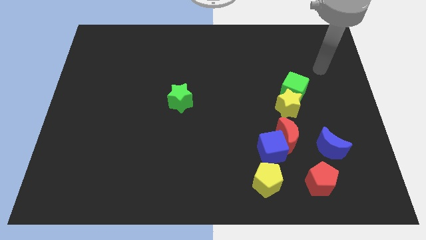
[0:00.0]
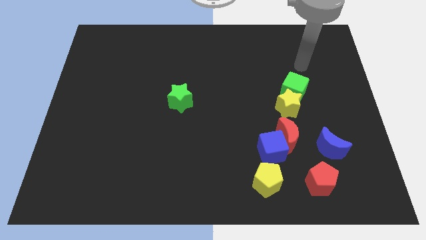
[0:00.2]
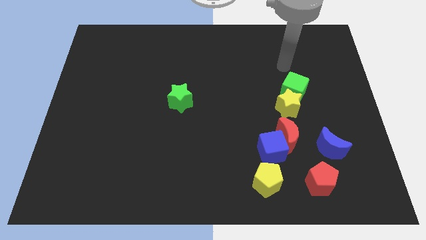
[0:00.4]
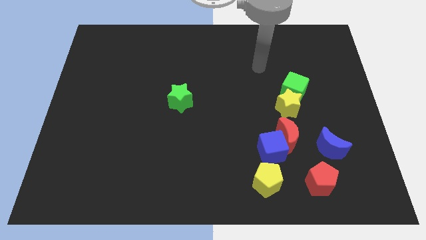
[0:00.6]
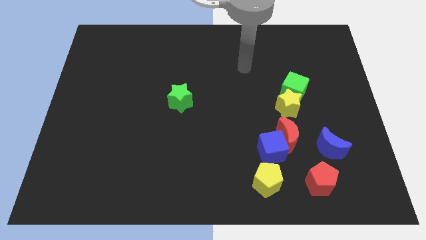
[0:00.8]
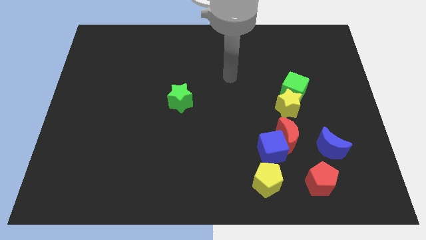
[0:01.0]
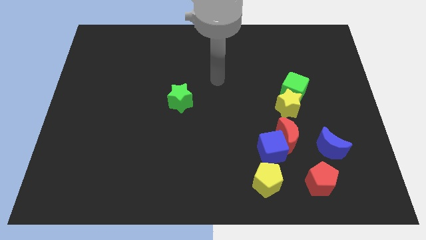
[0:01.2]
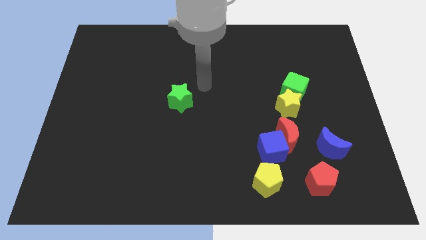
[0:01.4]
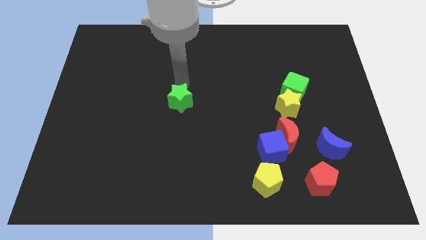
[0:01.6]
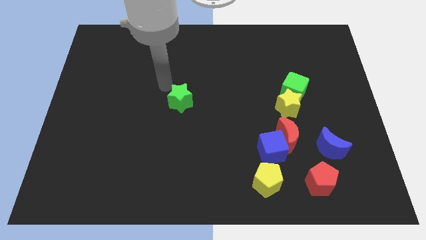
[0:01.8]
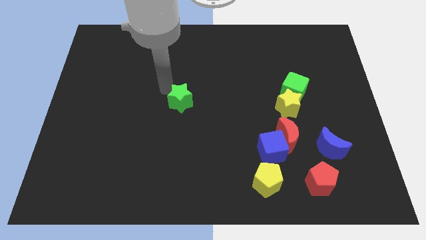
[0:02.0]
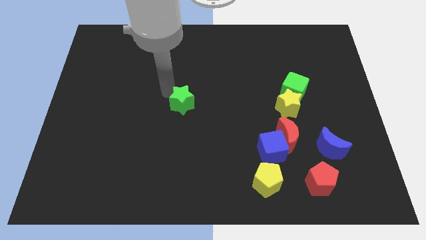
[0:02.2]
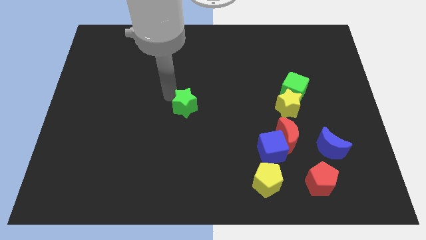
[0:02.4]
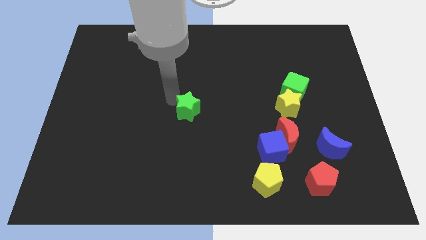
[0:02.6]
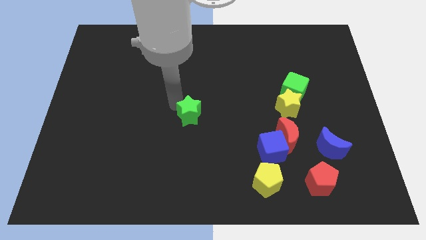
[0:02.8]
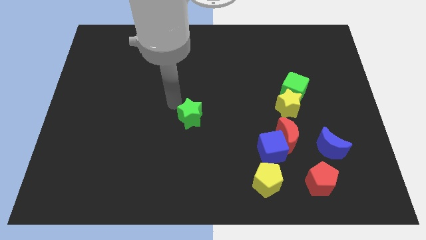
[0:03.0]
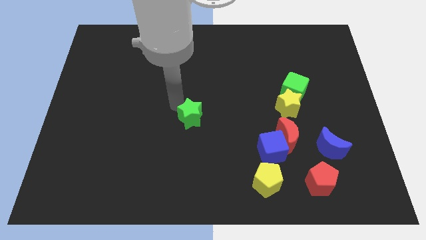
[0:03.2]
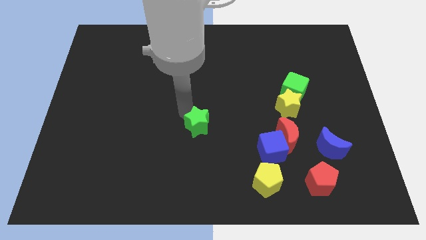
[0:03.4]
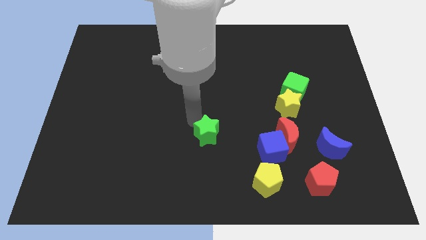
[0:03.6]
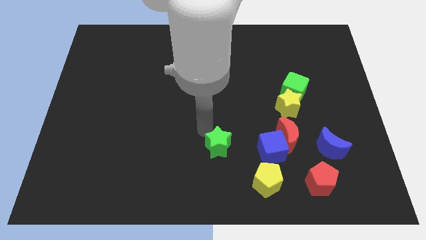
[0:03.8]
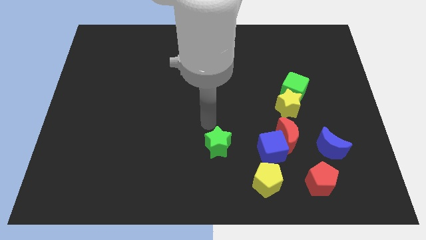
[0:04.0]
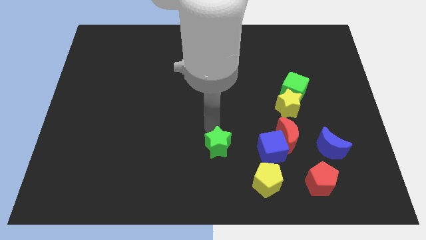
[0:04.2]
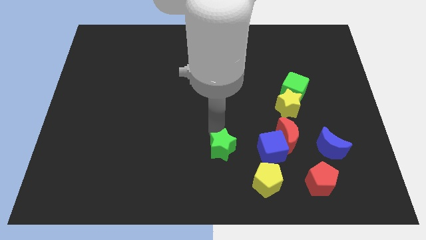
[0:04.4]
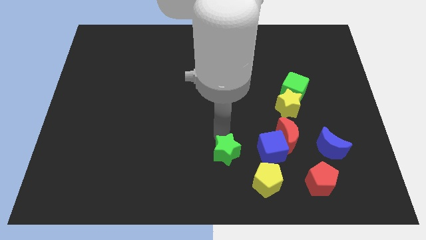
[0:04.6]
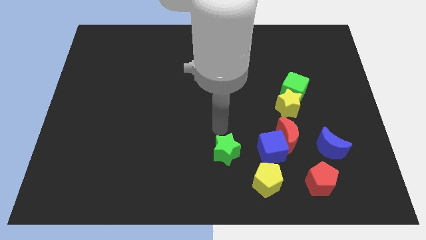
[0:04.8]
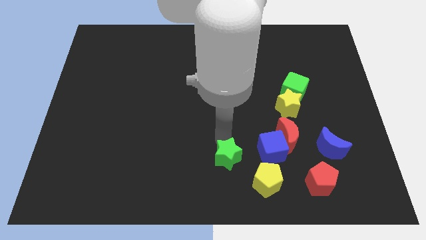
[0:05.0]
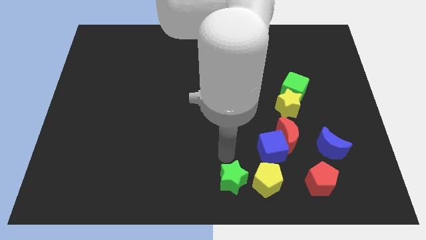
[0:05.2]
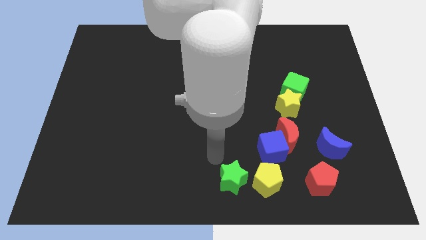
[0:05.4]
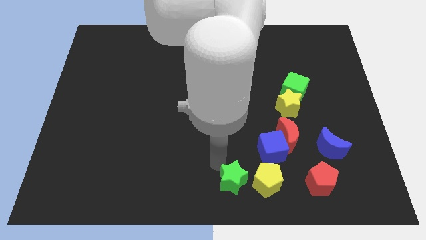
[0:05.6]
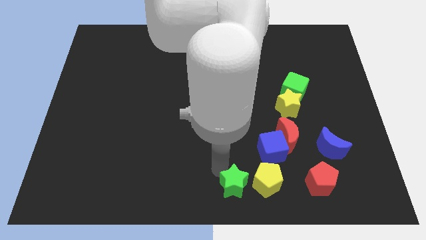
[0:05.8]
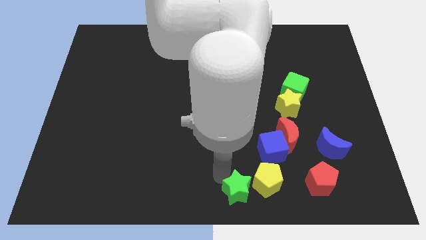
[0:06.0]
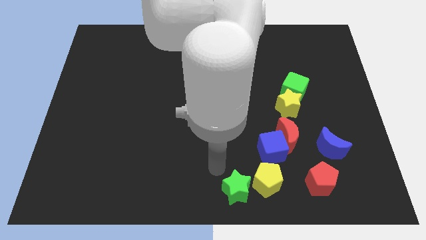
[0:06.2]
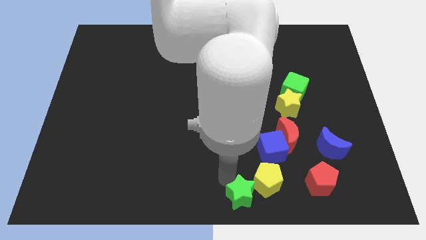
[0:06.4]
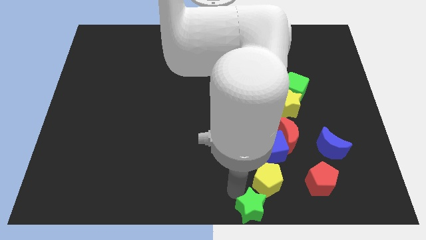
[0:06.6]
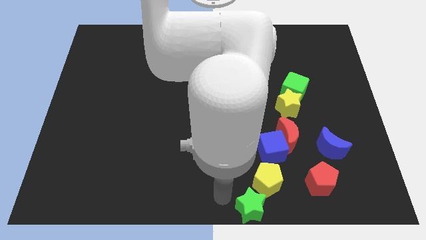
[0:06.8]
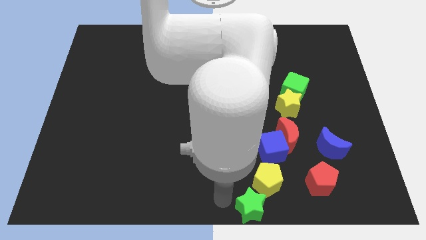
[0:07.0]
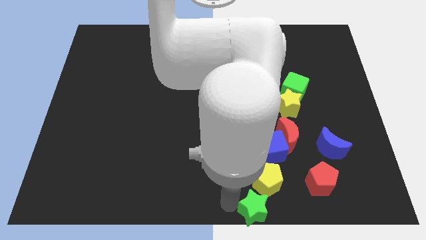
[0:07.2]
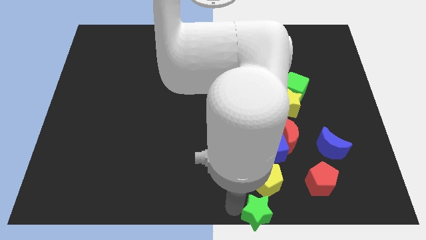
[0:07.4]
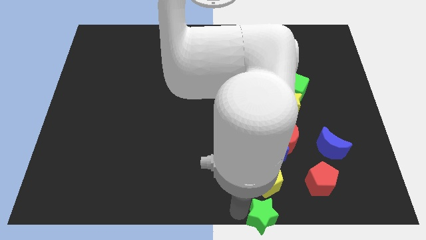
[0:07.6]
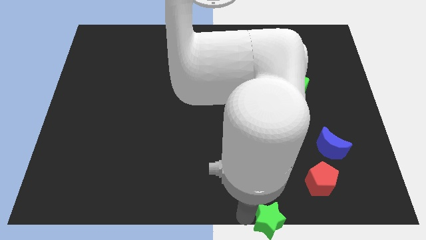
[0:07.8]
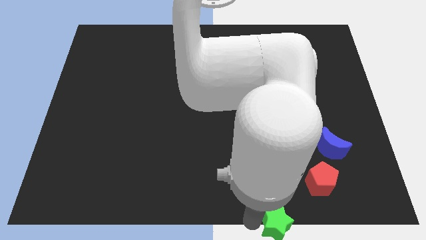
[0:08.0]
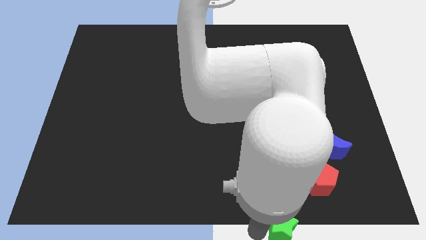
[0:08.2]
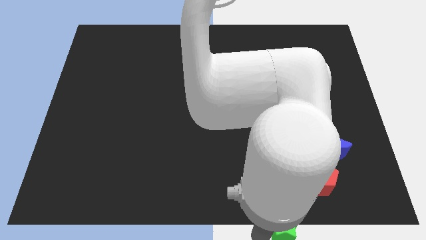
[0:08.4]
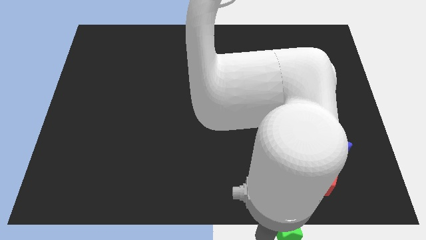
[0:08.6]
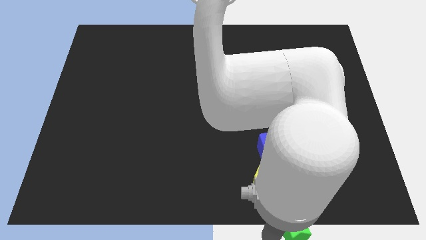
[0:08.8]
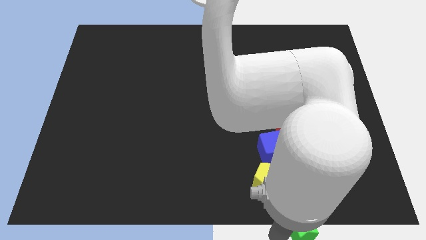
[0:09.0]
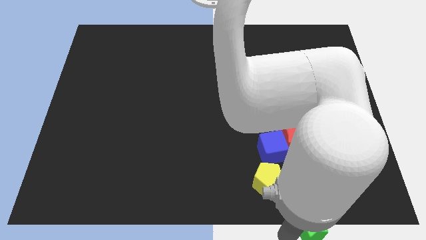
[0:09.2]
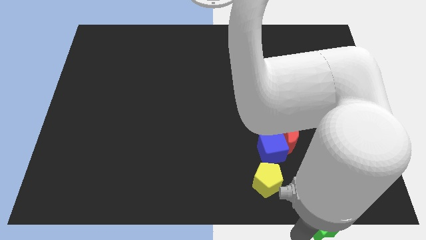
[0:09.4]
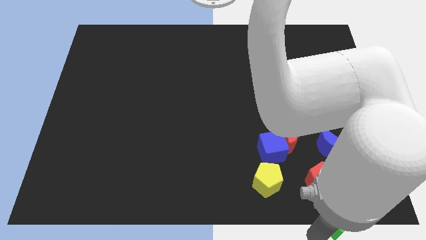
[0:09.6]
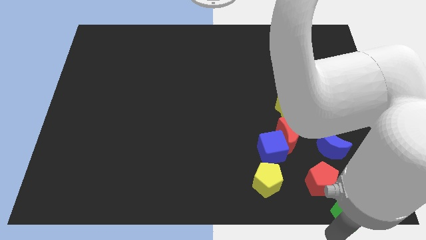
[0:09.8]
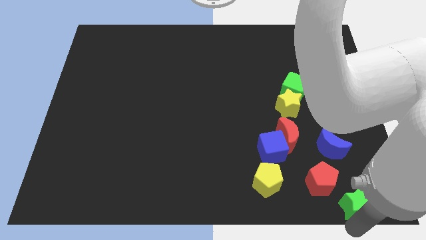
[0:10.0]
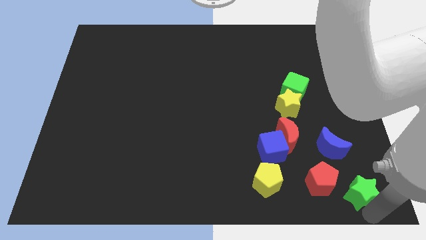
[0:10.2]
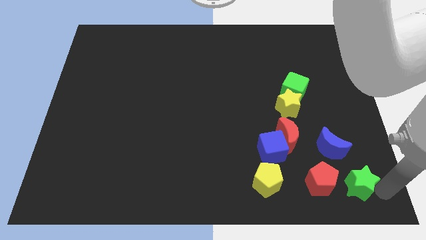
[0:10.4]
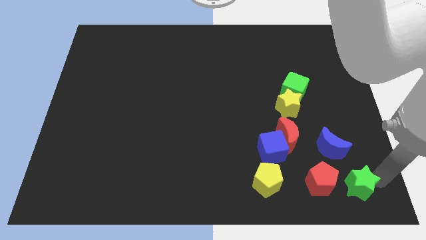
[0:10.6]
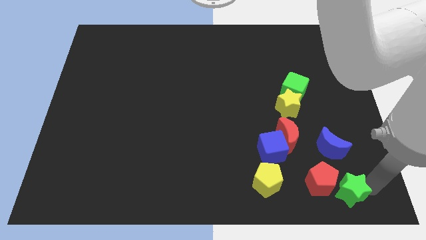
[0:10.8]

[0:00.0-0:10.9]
put the green star next to the red pentagon

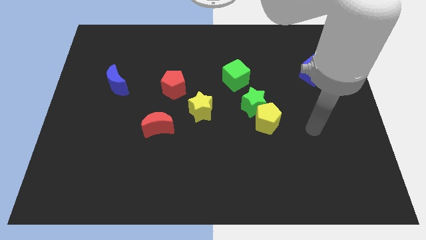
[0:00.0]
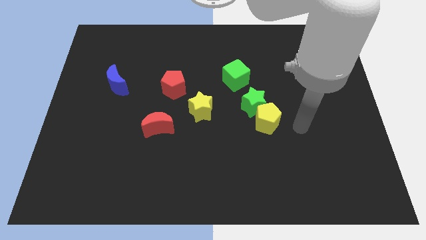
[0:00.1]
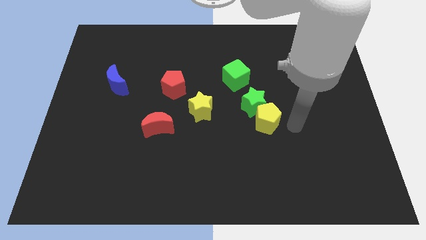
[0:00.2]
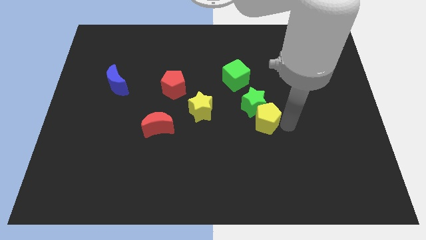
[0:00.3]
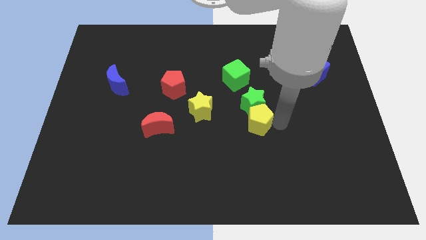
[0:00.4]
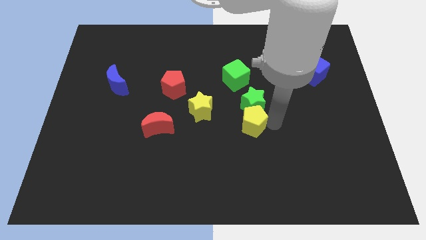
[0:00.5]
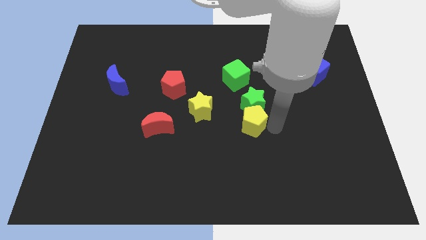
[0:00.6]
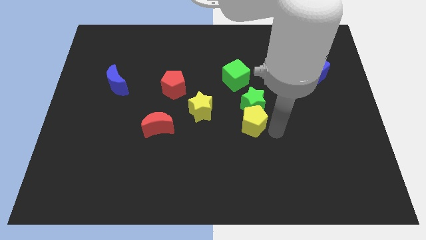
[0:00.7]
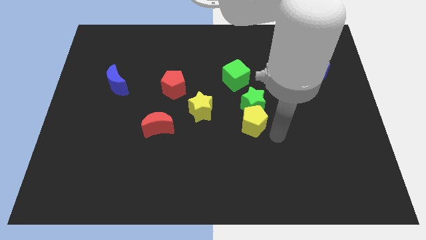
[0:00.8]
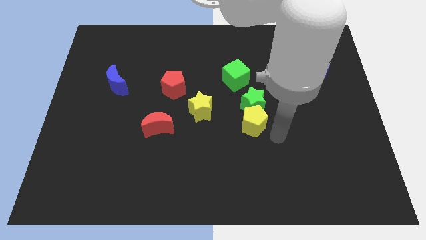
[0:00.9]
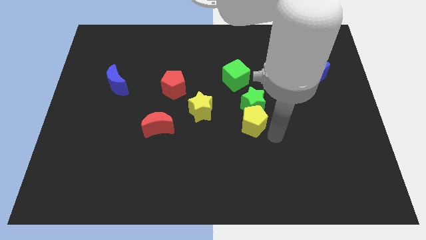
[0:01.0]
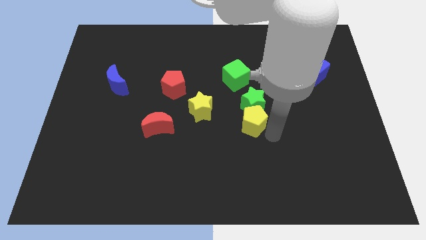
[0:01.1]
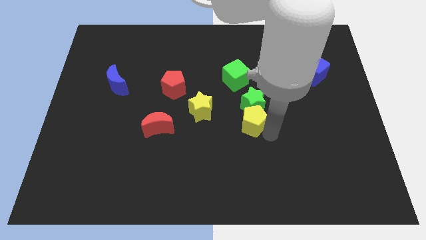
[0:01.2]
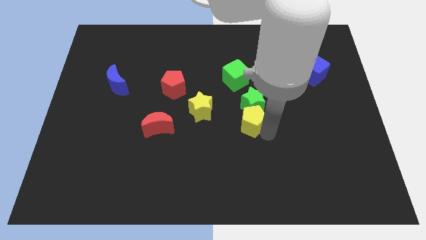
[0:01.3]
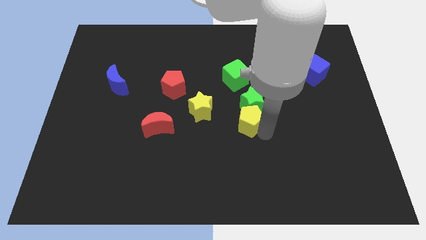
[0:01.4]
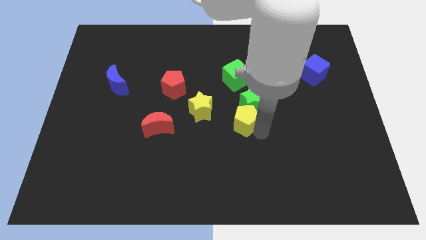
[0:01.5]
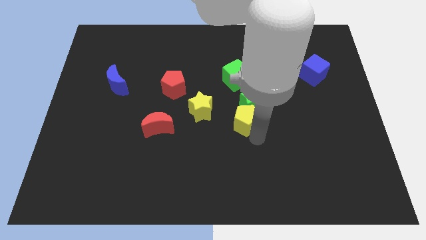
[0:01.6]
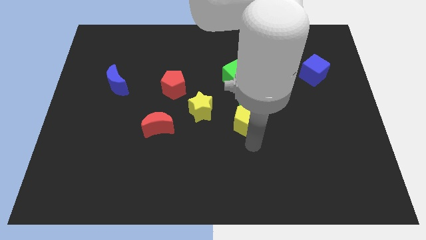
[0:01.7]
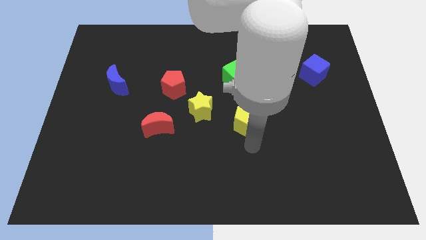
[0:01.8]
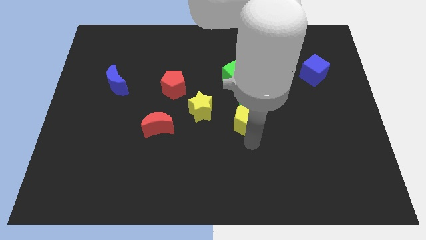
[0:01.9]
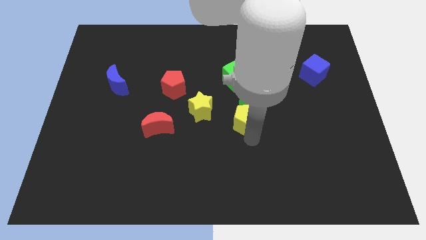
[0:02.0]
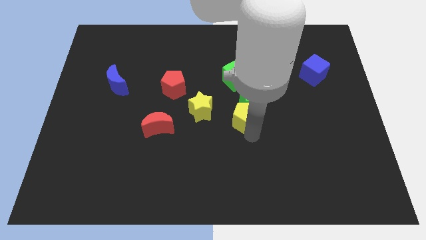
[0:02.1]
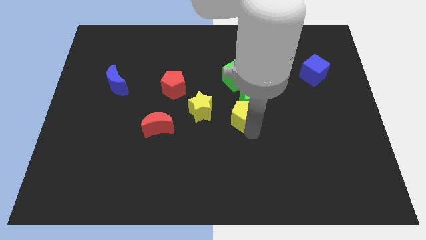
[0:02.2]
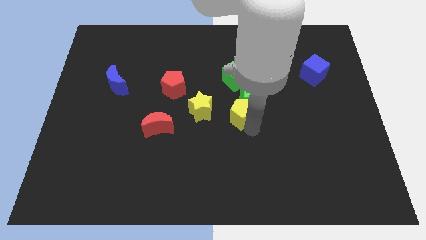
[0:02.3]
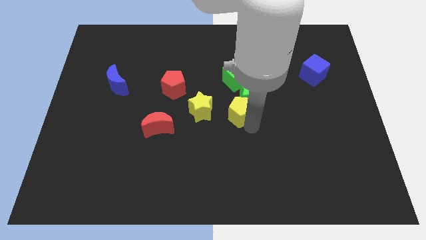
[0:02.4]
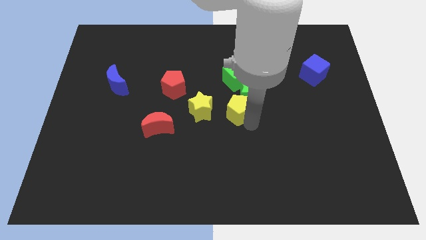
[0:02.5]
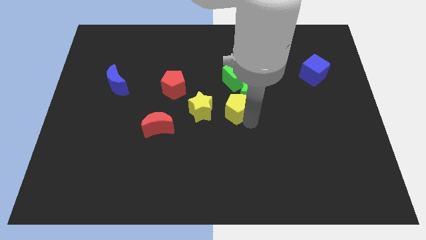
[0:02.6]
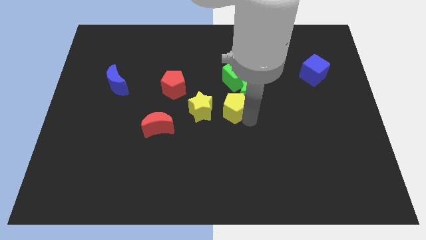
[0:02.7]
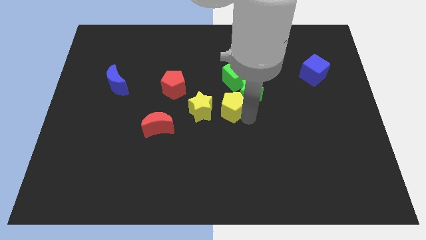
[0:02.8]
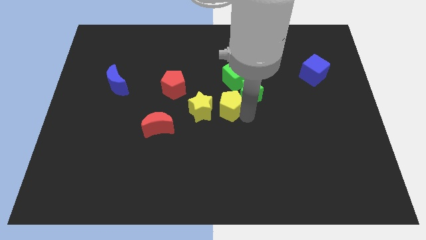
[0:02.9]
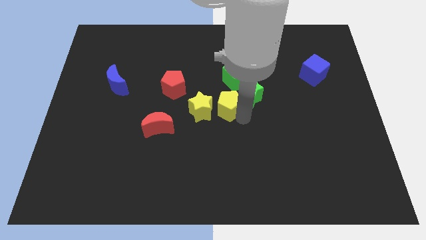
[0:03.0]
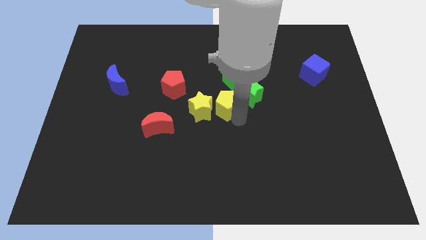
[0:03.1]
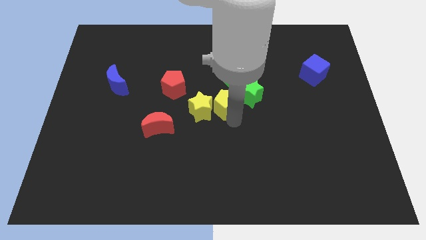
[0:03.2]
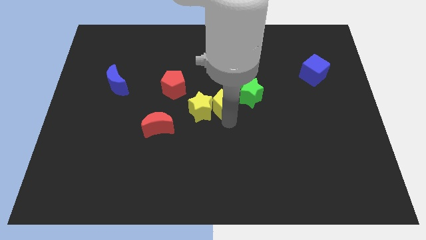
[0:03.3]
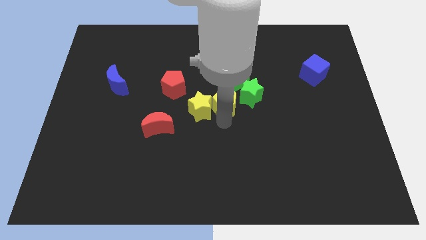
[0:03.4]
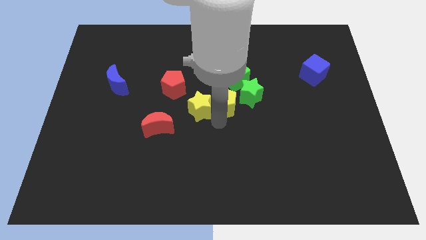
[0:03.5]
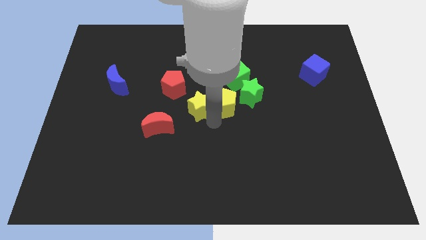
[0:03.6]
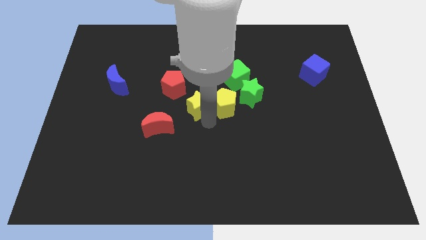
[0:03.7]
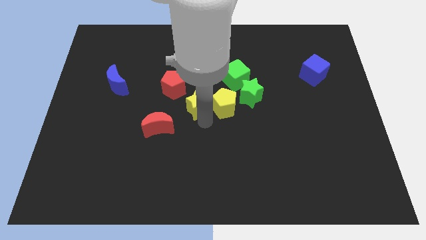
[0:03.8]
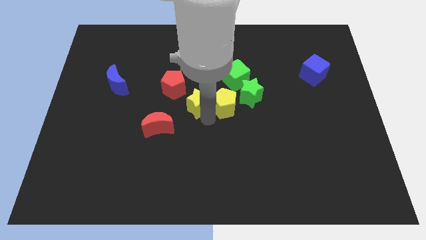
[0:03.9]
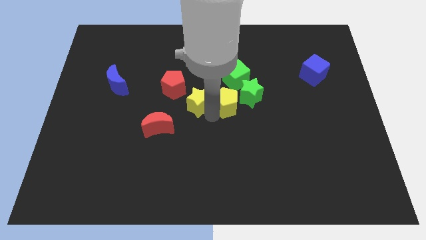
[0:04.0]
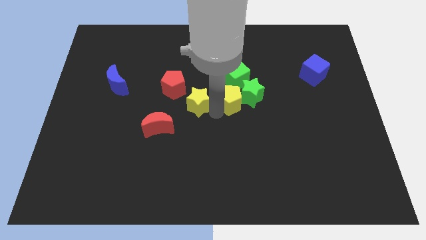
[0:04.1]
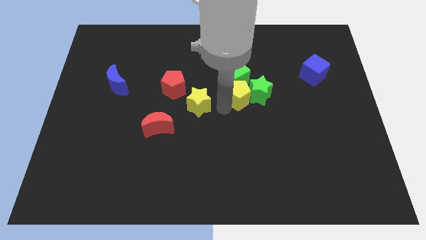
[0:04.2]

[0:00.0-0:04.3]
move the yellow pentagon close to the green cube
